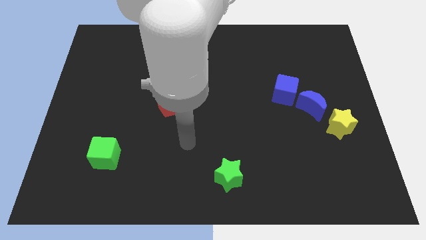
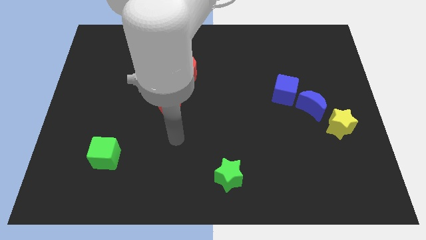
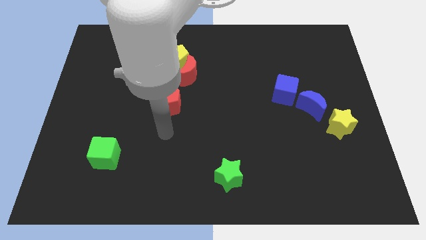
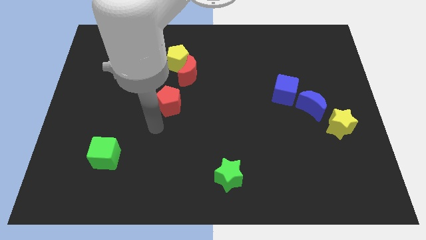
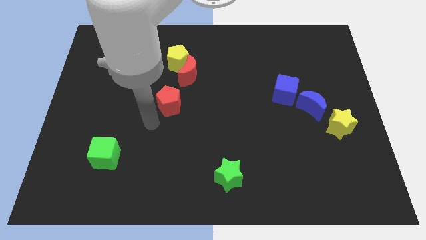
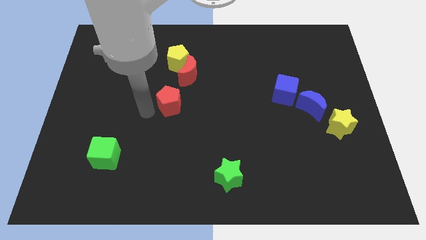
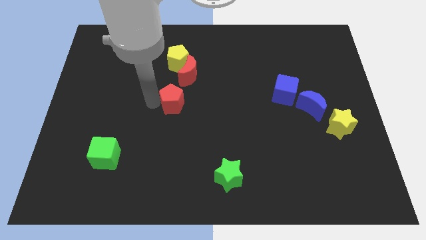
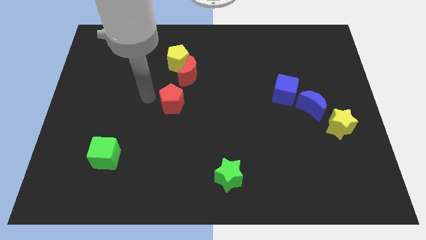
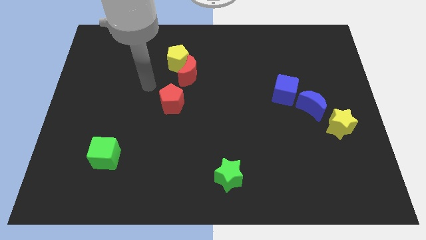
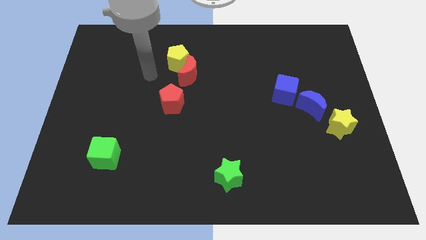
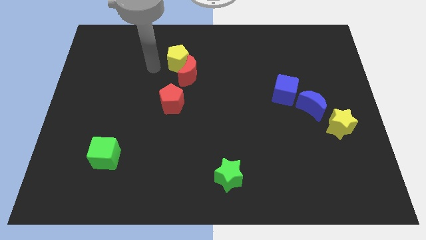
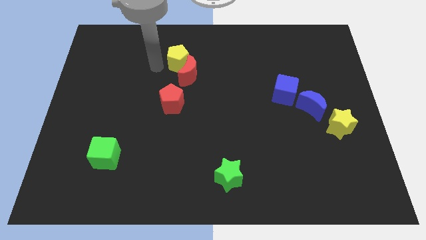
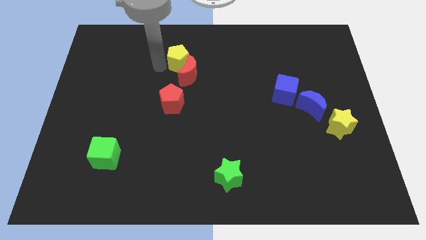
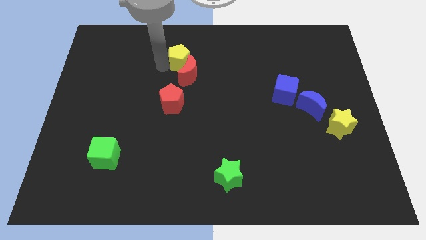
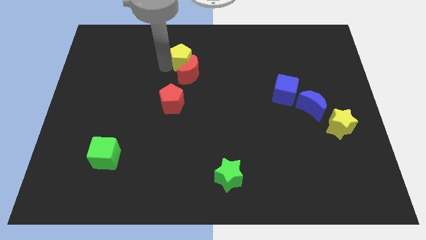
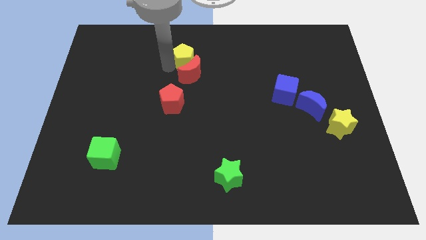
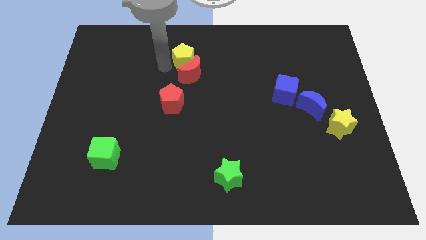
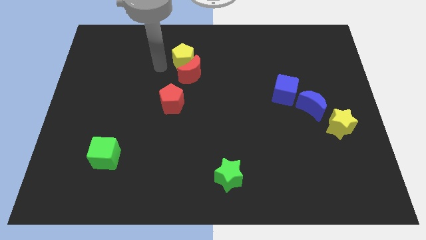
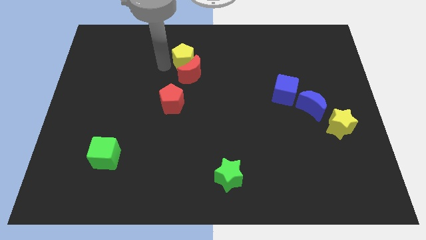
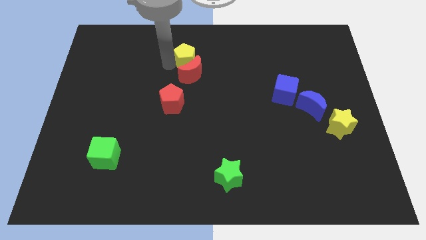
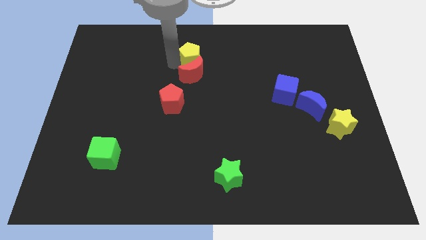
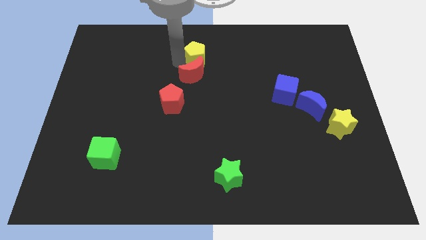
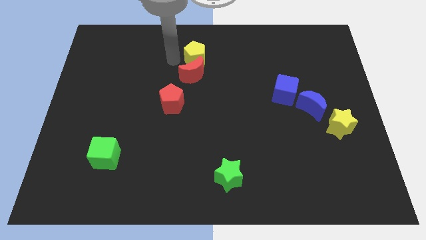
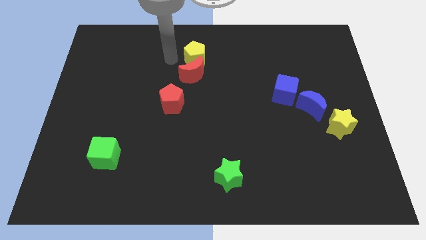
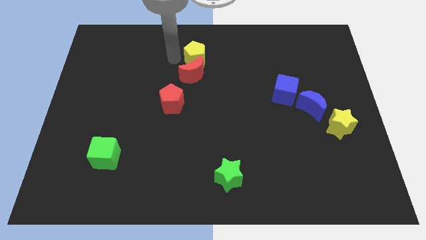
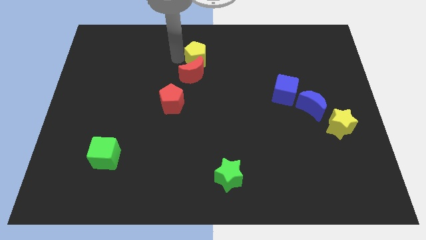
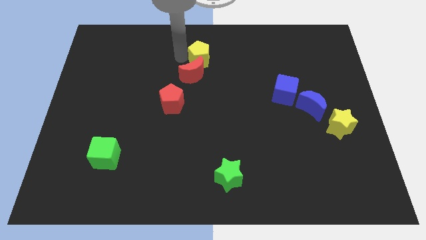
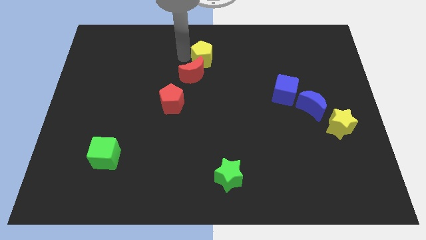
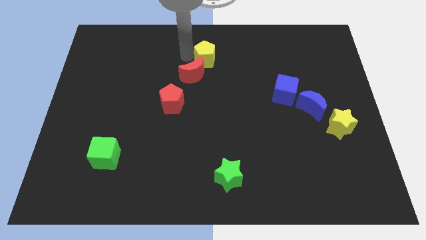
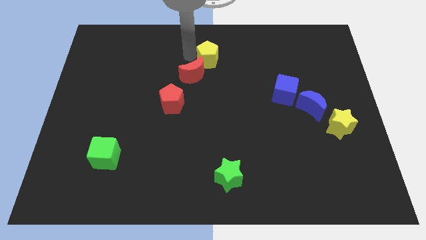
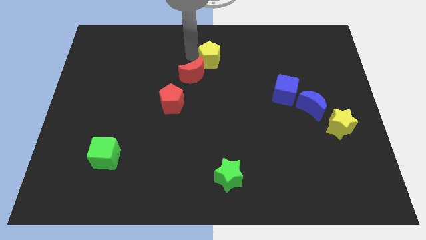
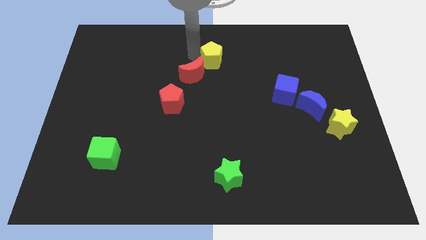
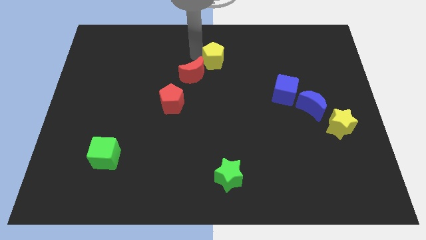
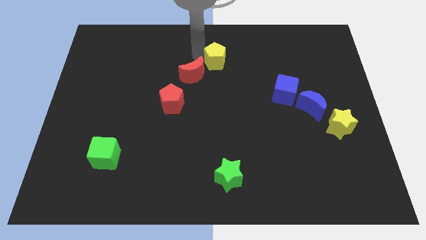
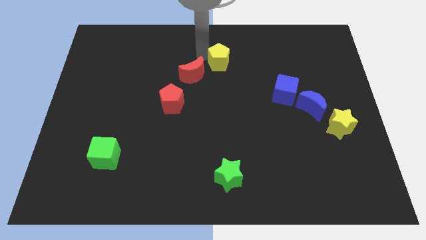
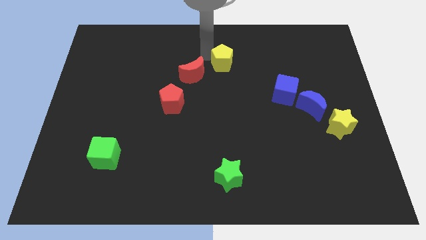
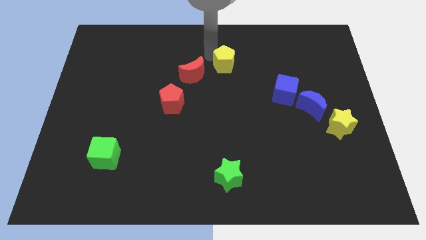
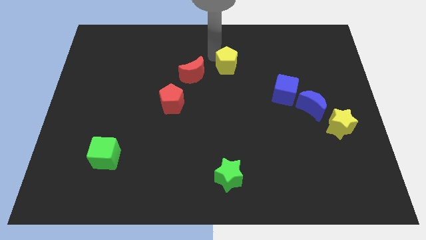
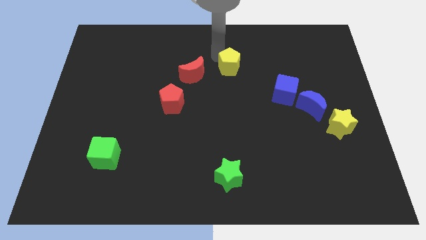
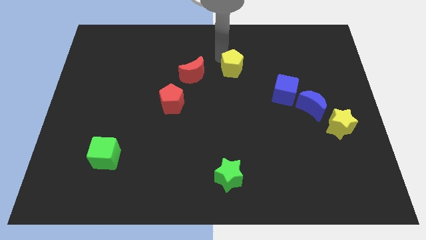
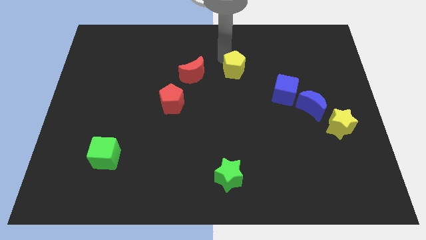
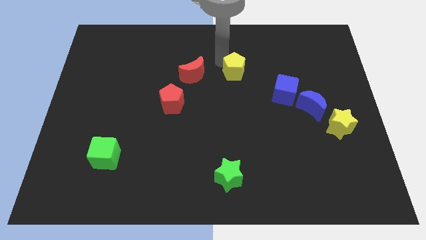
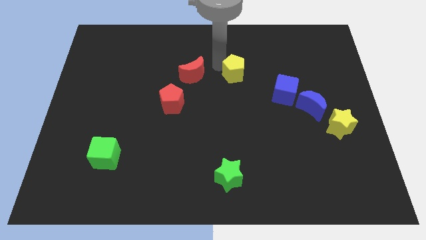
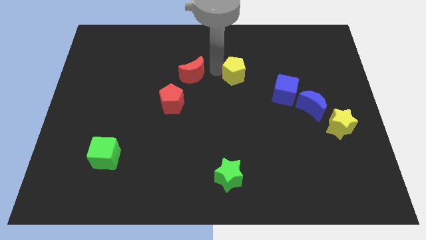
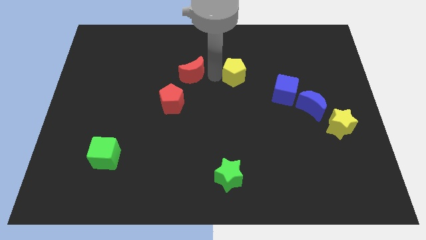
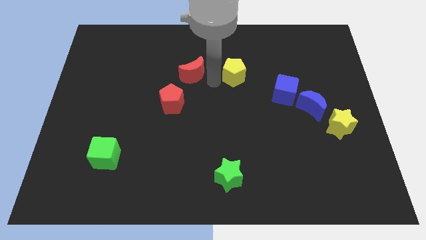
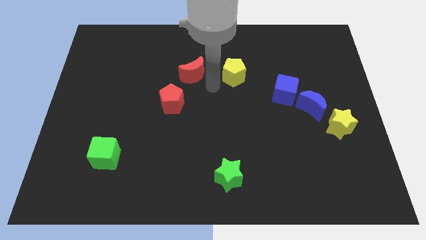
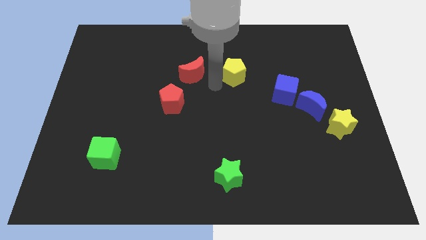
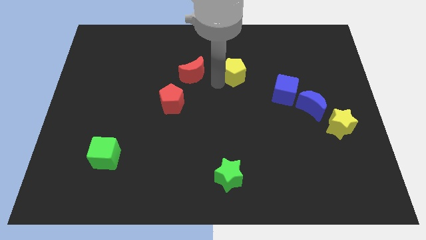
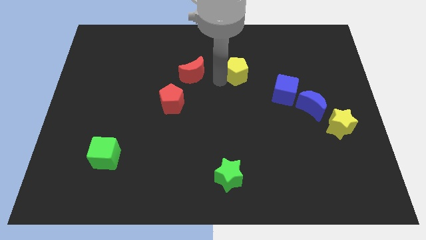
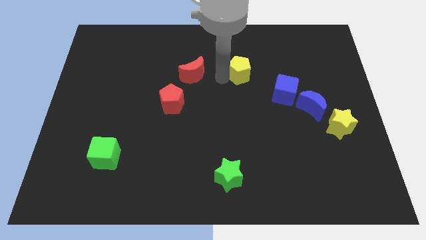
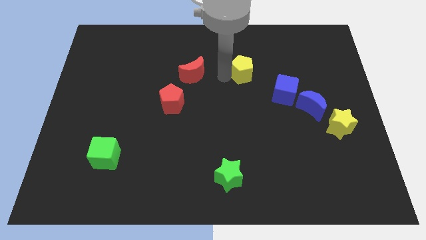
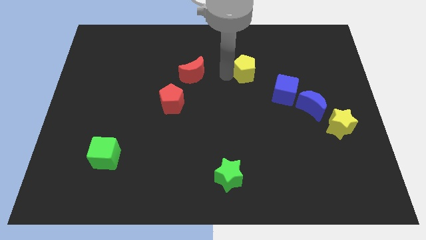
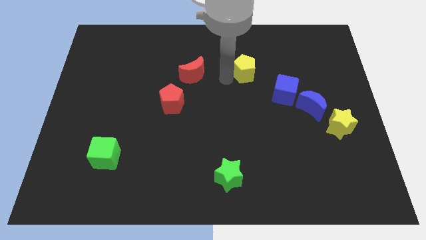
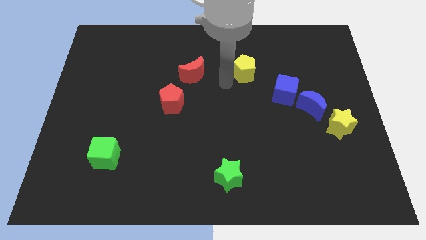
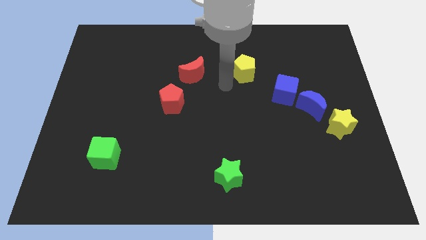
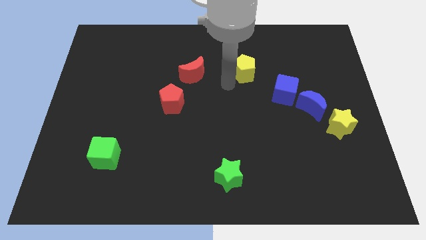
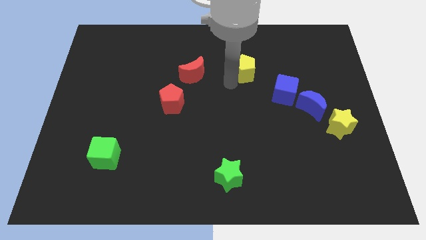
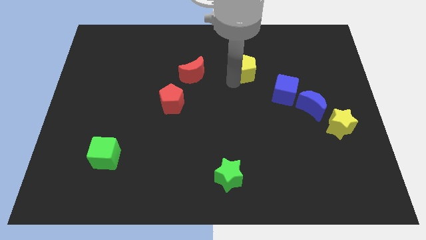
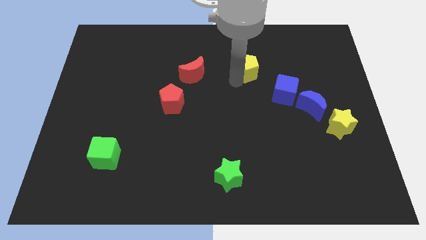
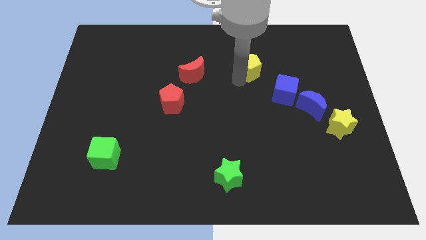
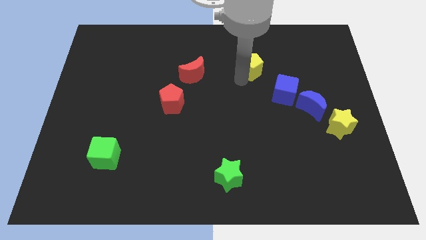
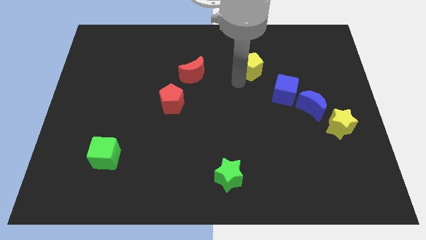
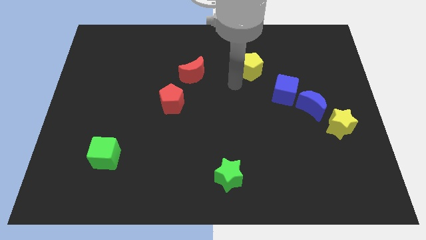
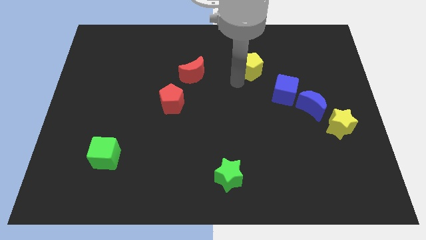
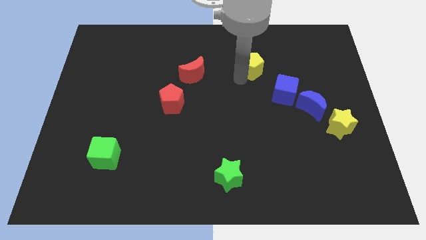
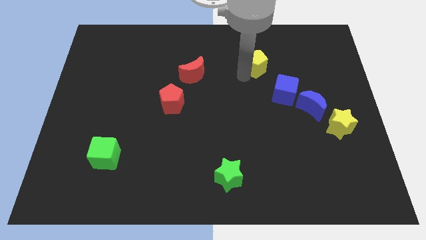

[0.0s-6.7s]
move the yellow pentagon right

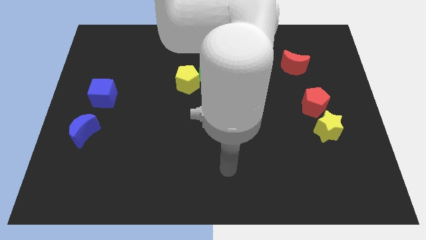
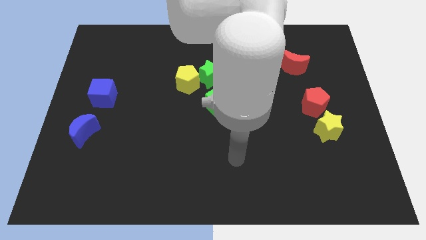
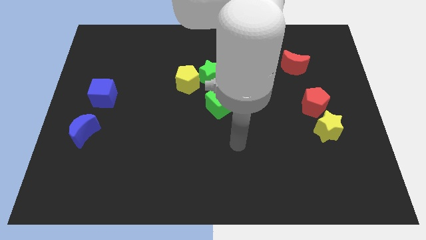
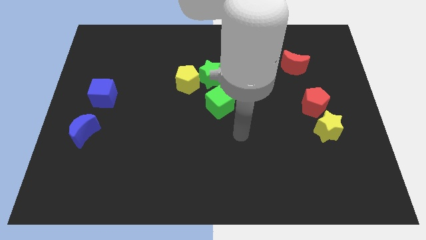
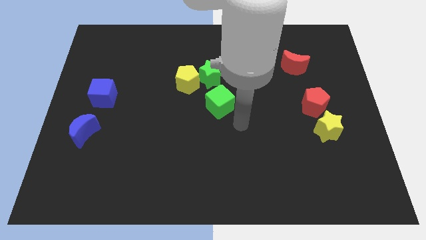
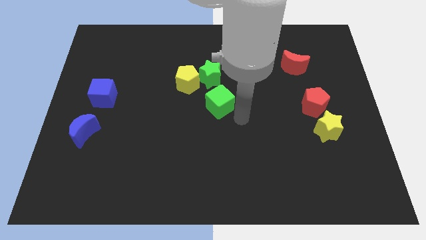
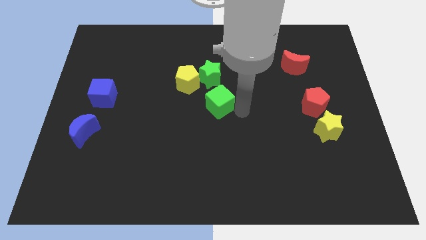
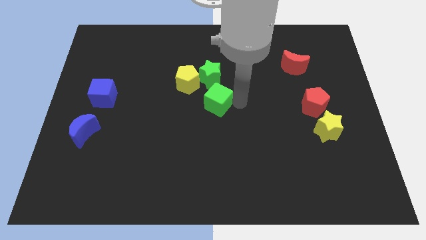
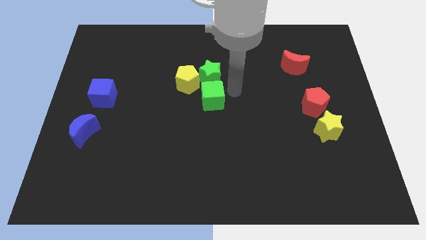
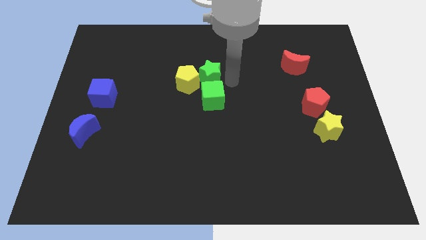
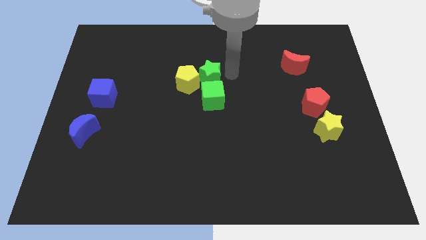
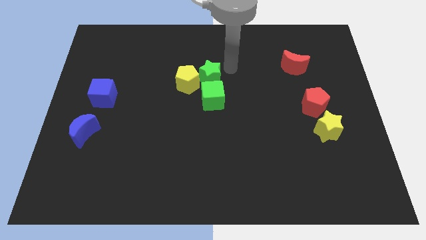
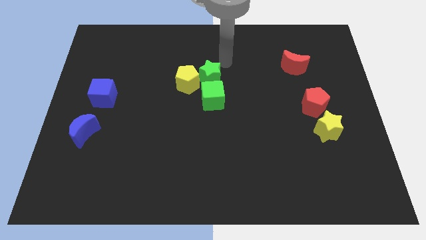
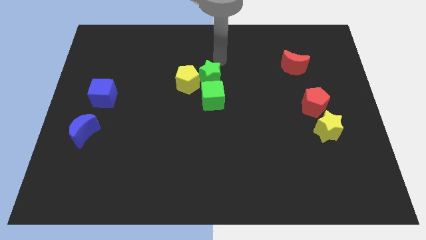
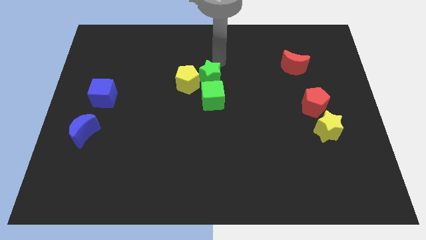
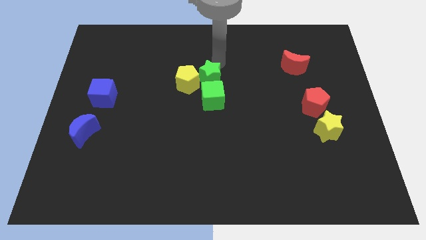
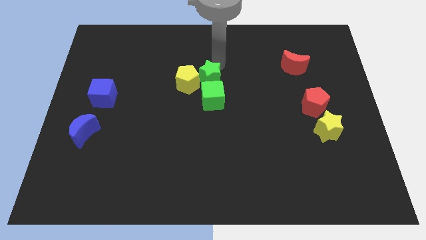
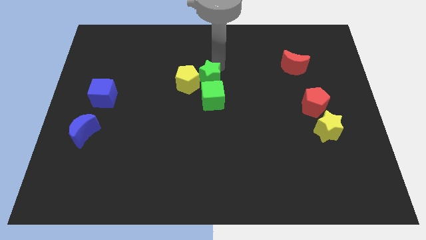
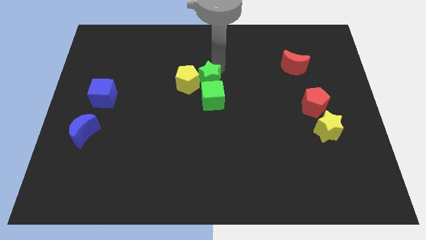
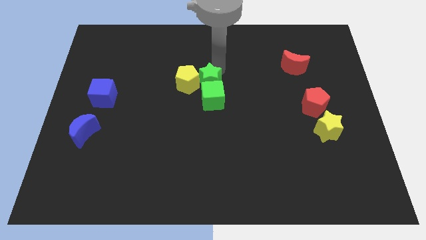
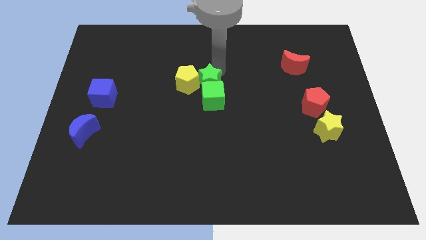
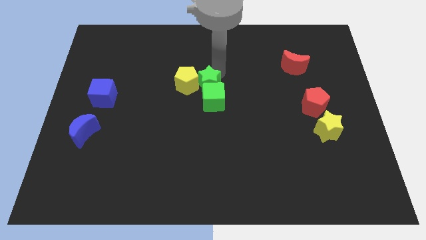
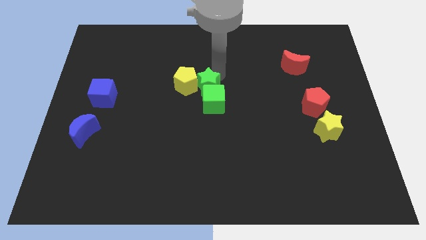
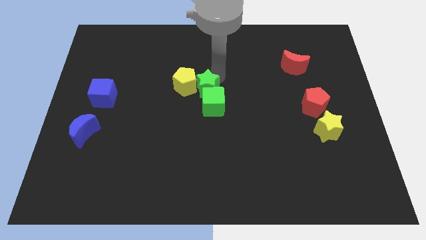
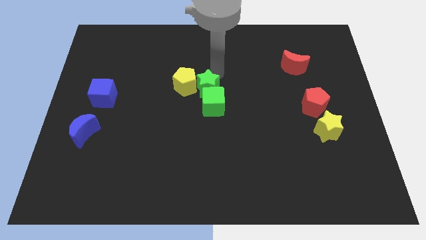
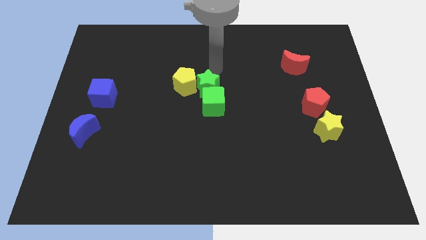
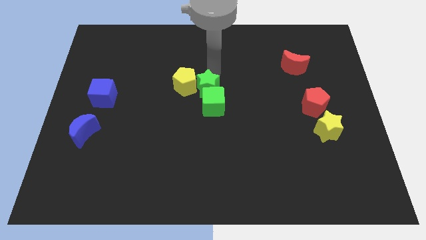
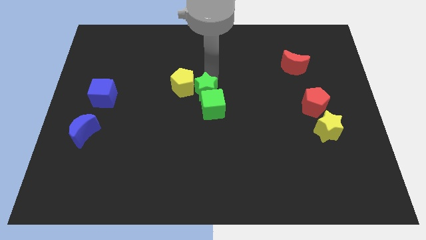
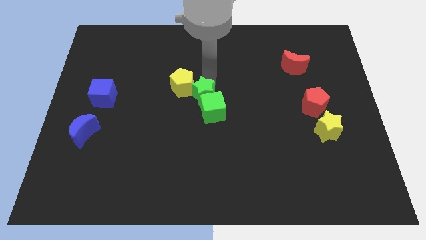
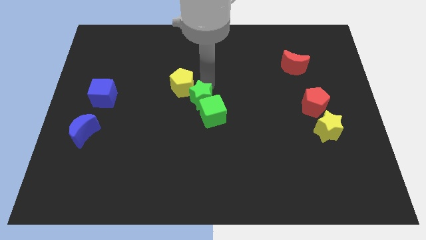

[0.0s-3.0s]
slightly move the green star downwards
